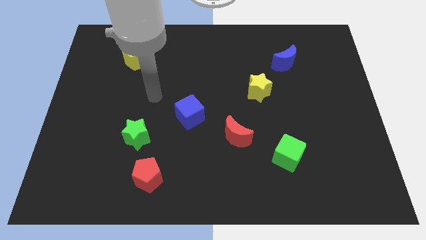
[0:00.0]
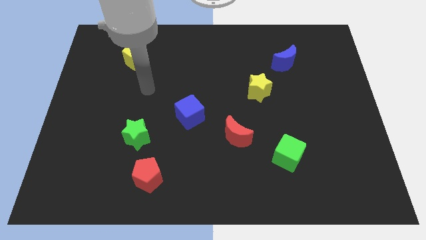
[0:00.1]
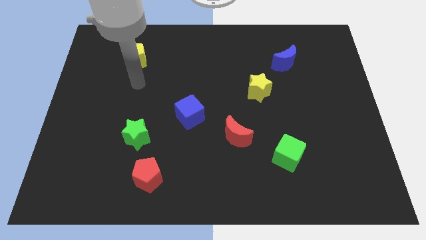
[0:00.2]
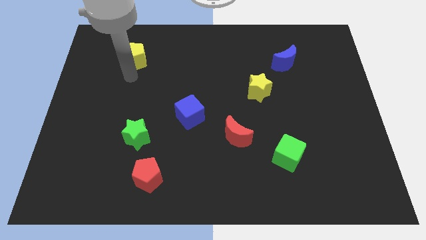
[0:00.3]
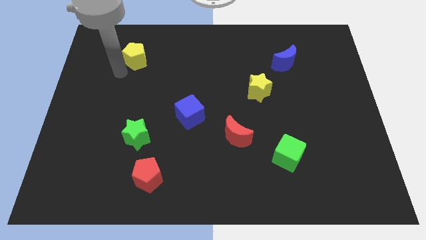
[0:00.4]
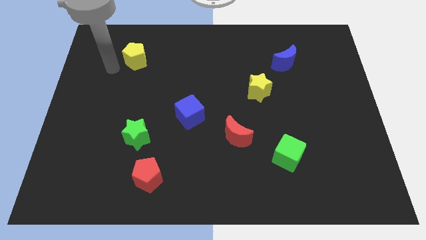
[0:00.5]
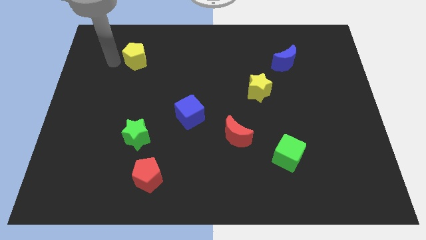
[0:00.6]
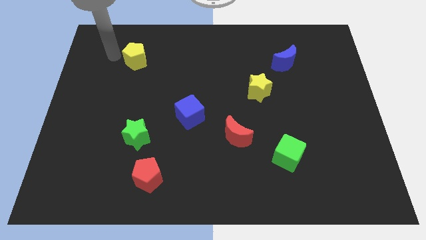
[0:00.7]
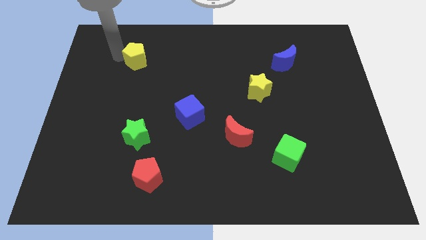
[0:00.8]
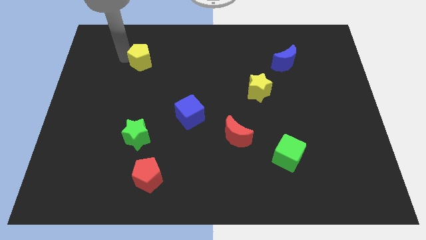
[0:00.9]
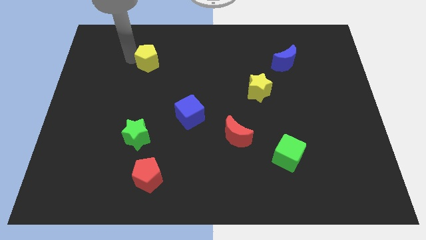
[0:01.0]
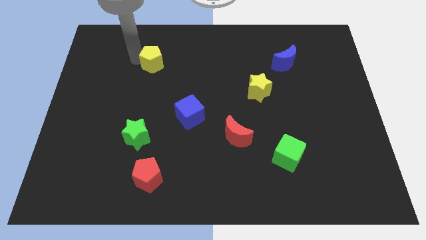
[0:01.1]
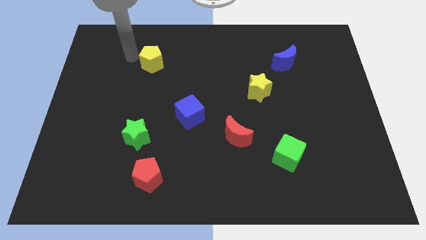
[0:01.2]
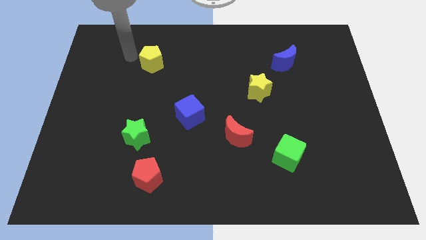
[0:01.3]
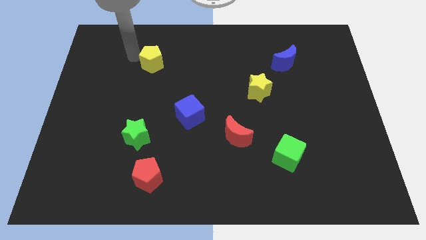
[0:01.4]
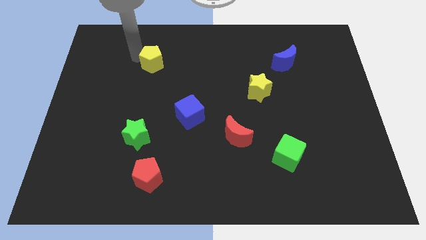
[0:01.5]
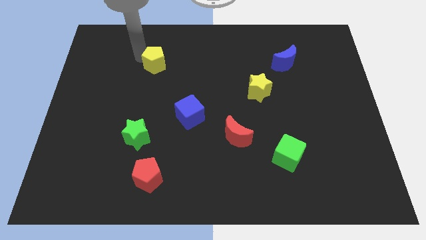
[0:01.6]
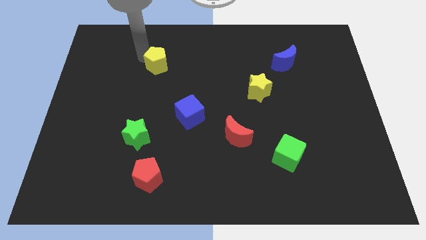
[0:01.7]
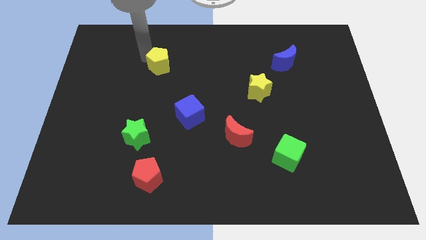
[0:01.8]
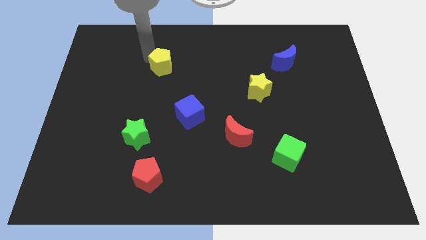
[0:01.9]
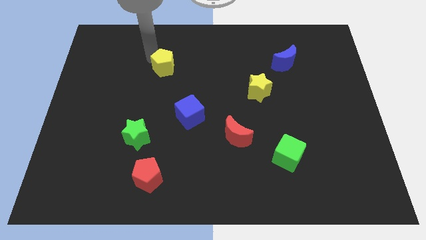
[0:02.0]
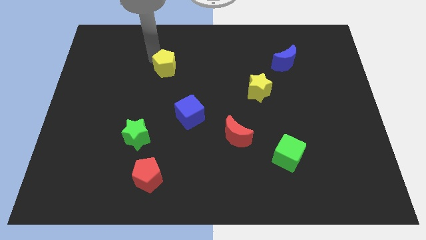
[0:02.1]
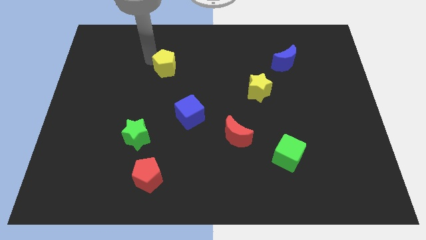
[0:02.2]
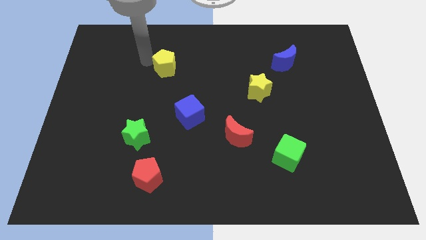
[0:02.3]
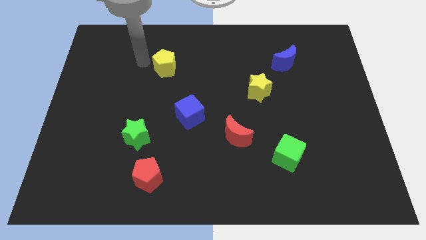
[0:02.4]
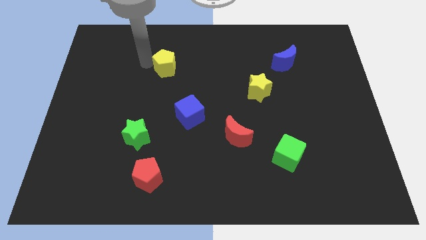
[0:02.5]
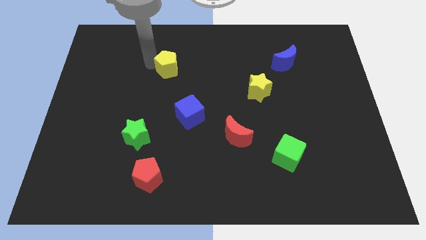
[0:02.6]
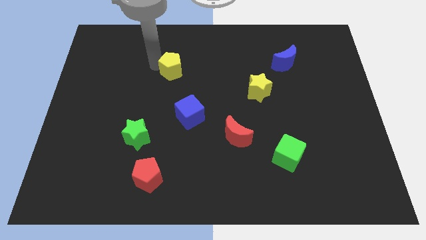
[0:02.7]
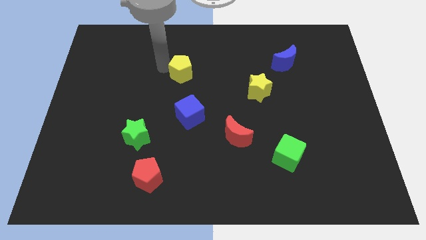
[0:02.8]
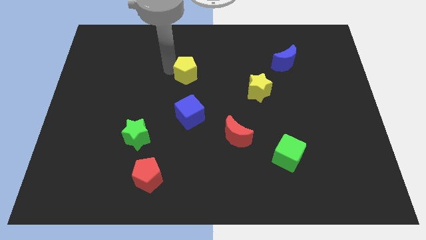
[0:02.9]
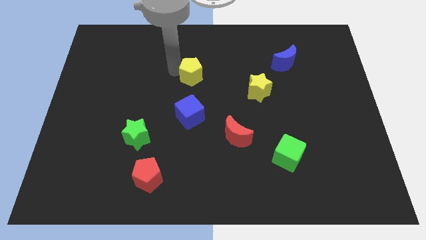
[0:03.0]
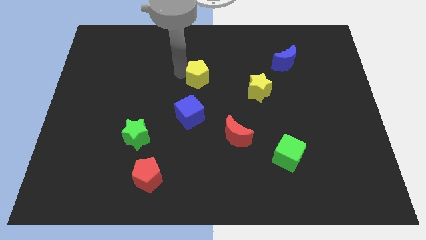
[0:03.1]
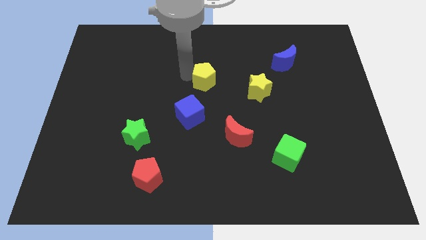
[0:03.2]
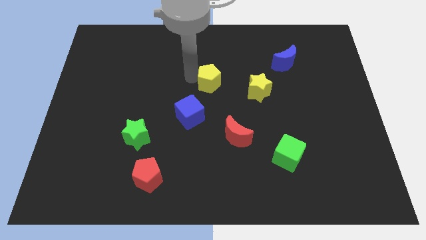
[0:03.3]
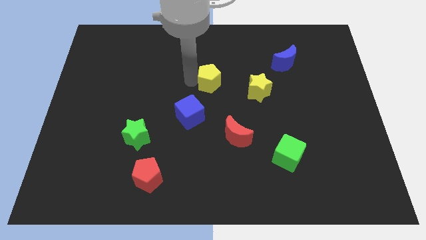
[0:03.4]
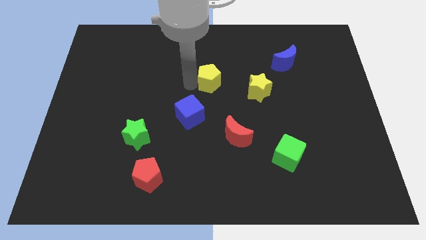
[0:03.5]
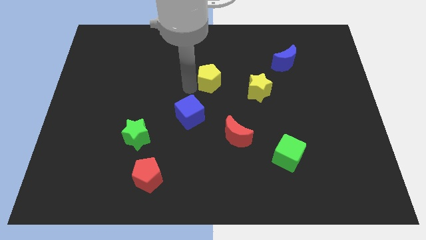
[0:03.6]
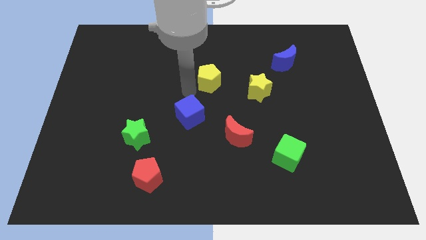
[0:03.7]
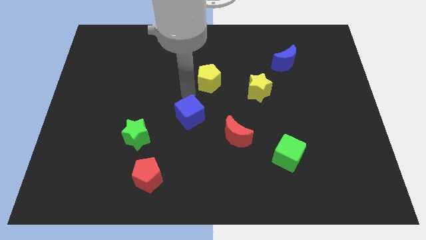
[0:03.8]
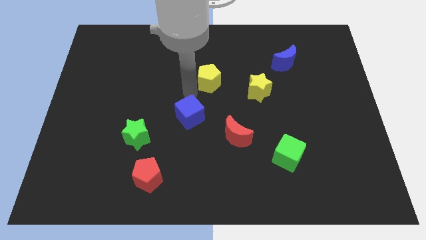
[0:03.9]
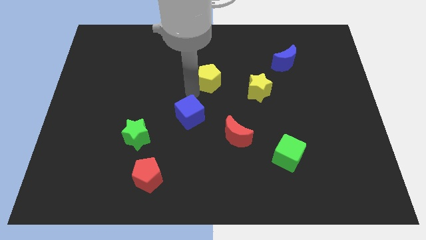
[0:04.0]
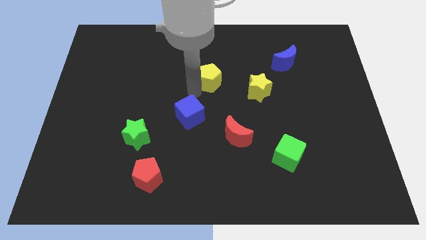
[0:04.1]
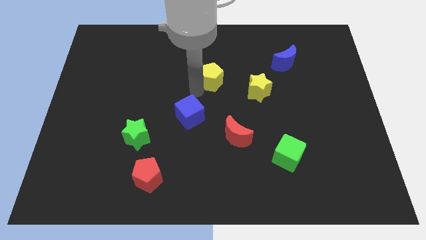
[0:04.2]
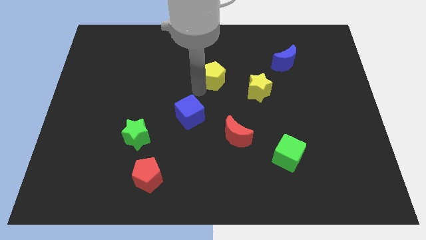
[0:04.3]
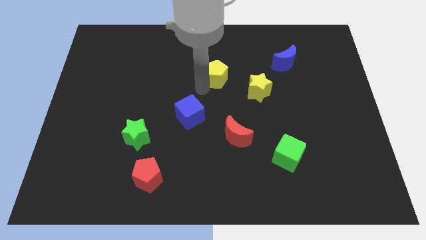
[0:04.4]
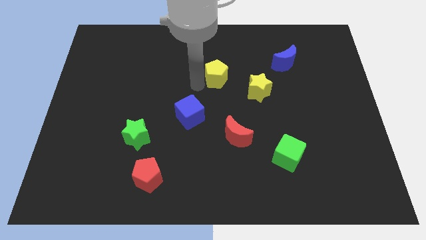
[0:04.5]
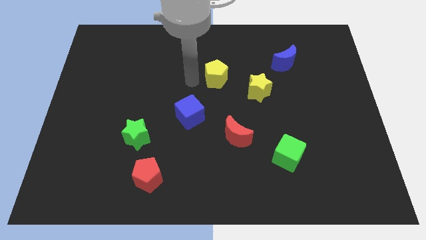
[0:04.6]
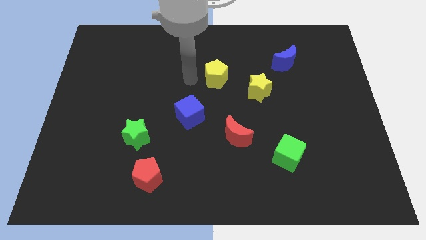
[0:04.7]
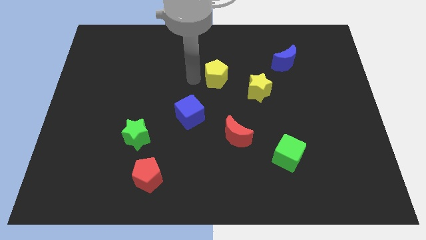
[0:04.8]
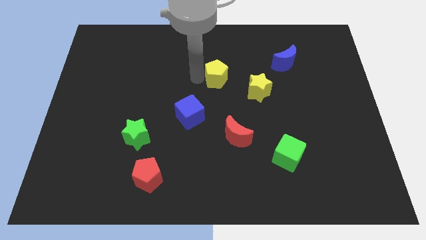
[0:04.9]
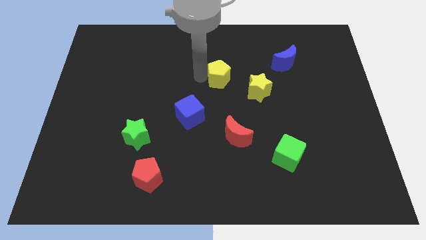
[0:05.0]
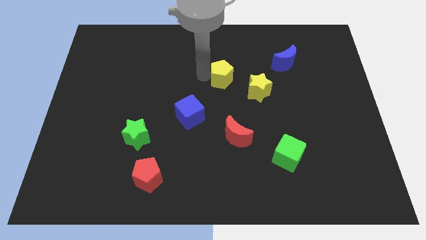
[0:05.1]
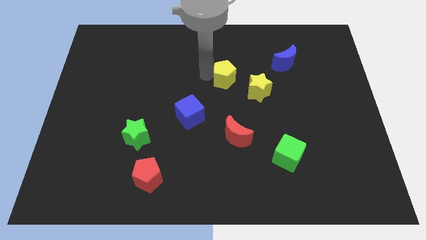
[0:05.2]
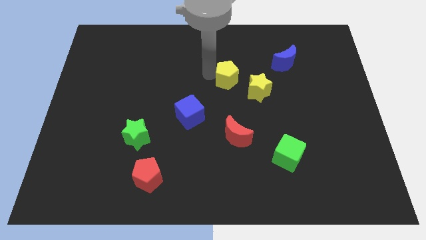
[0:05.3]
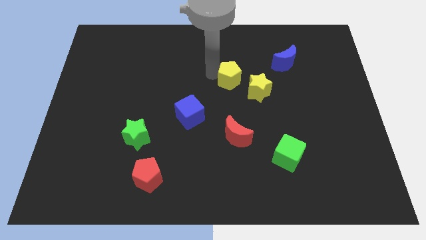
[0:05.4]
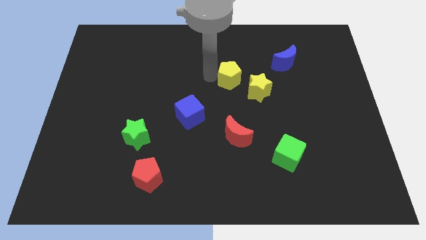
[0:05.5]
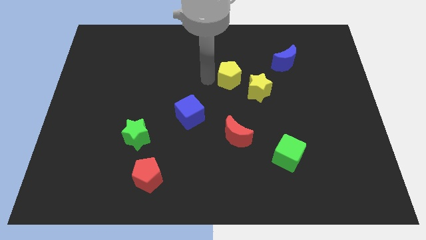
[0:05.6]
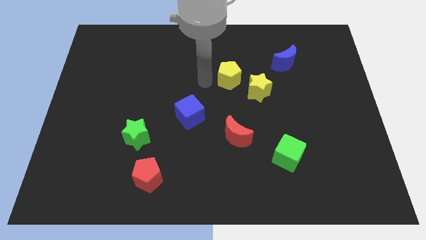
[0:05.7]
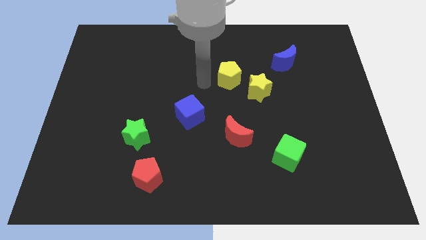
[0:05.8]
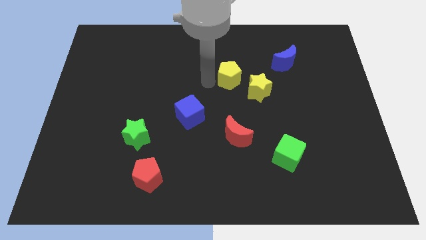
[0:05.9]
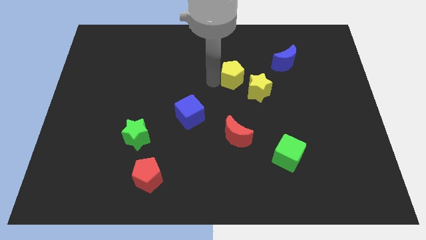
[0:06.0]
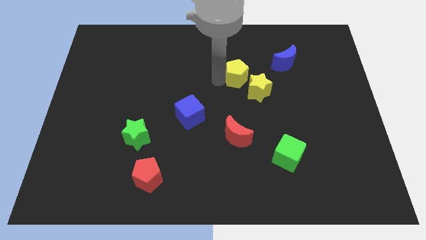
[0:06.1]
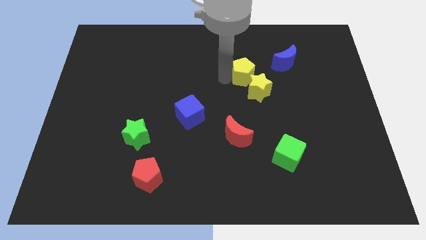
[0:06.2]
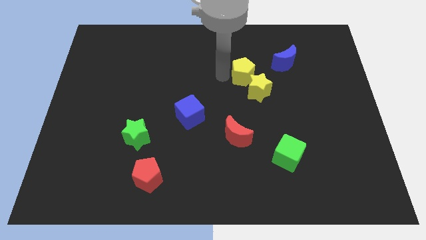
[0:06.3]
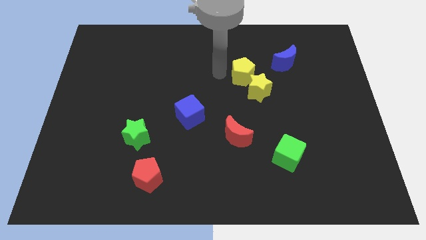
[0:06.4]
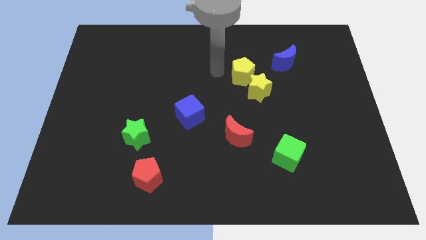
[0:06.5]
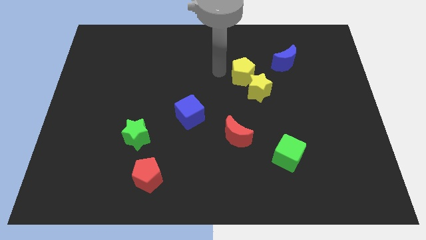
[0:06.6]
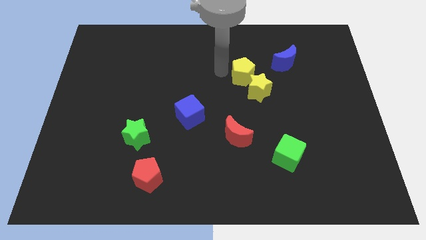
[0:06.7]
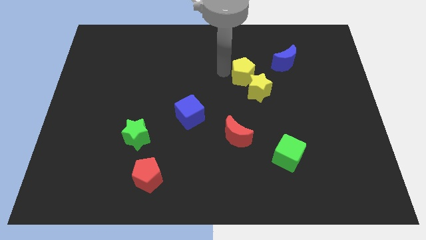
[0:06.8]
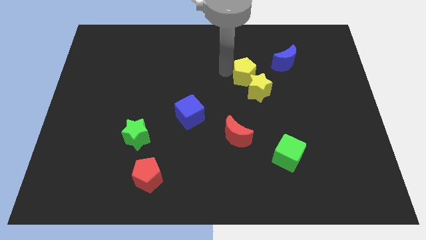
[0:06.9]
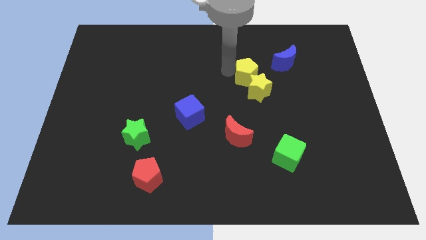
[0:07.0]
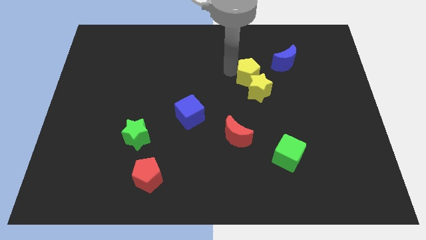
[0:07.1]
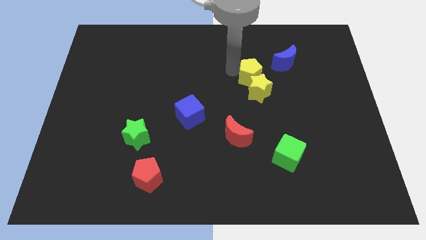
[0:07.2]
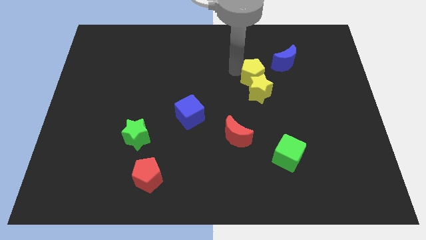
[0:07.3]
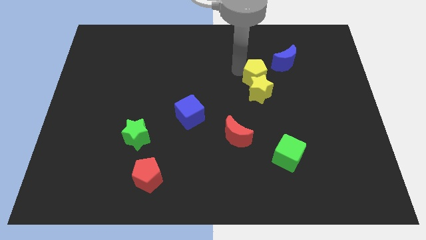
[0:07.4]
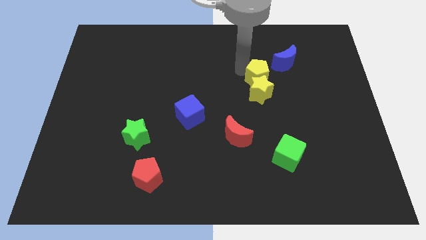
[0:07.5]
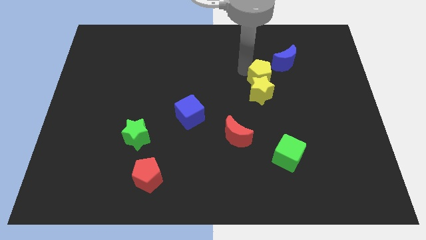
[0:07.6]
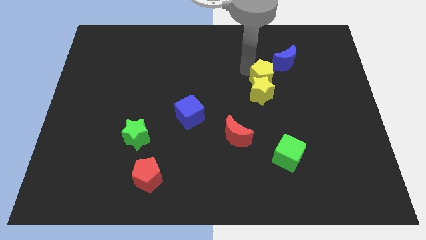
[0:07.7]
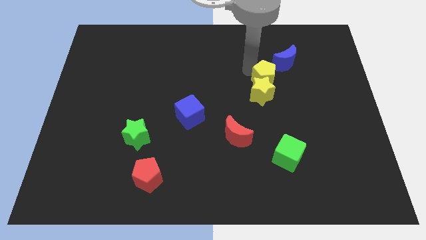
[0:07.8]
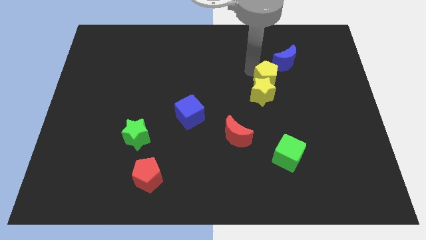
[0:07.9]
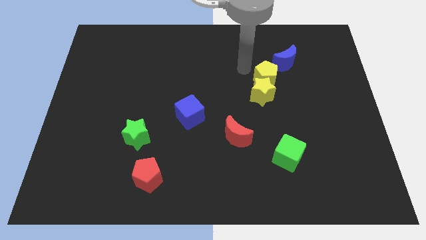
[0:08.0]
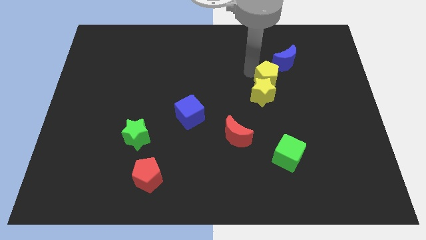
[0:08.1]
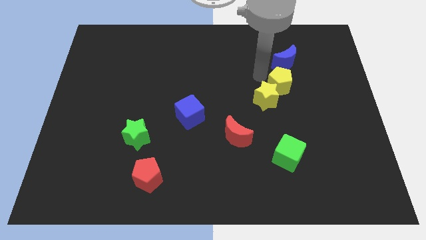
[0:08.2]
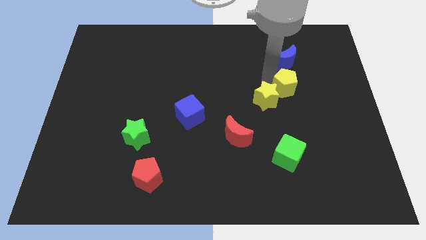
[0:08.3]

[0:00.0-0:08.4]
put the yellow pentagon right of the yellow star

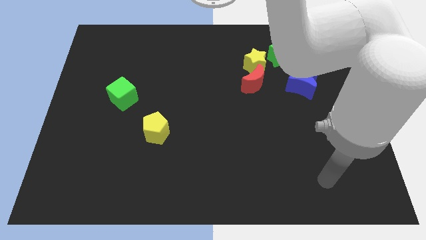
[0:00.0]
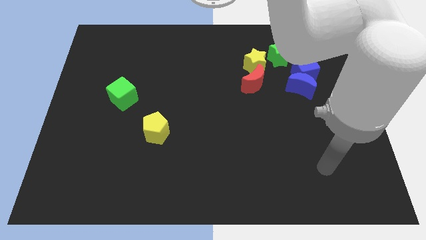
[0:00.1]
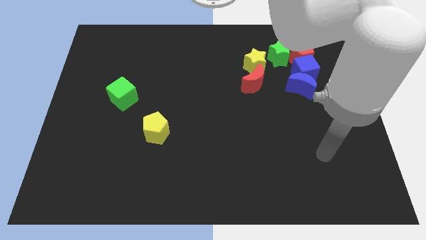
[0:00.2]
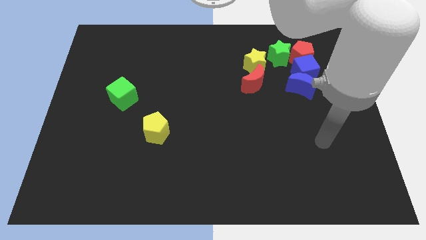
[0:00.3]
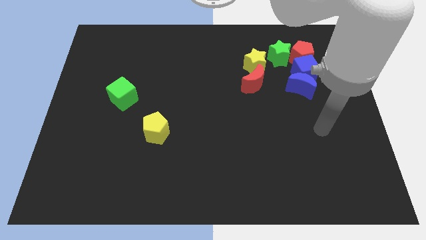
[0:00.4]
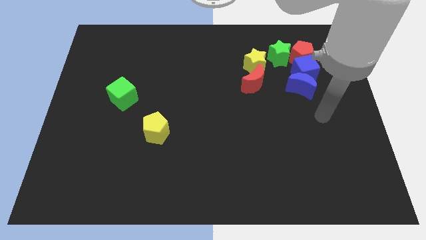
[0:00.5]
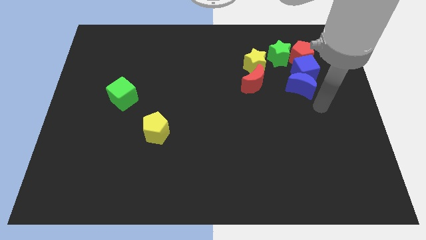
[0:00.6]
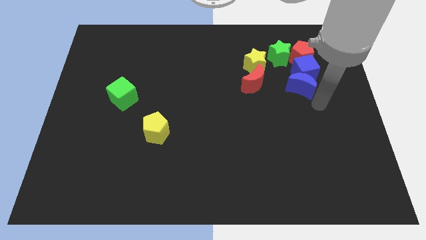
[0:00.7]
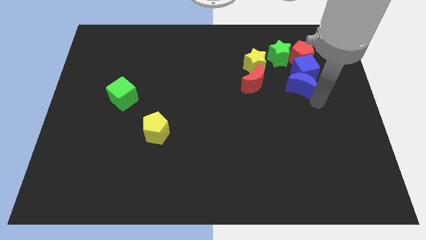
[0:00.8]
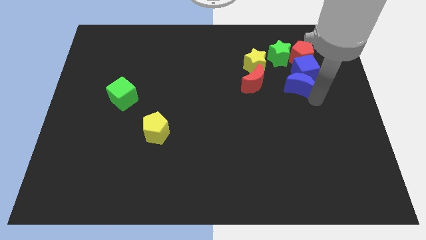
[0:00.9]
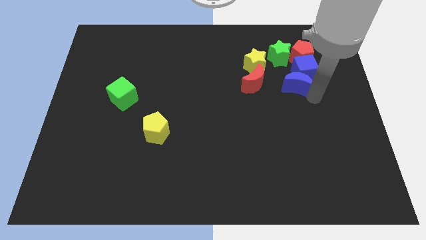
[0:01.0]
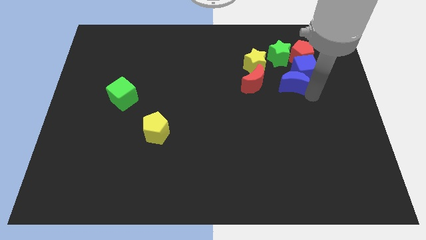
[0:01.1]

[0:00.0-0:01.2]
push the blue moon to the bottom left side of the red pentagon
